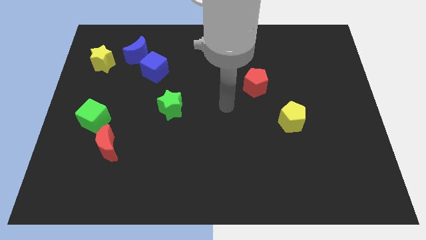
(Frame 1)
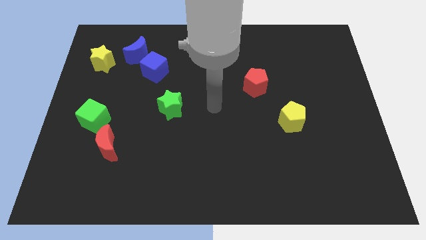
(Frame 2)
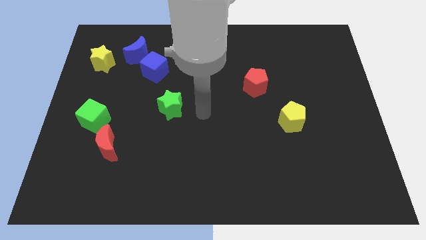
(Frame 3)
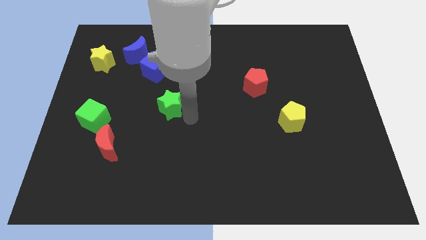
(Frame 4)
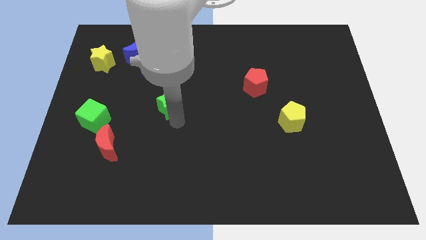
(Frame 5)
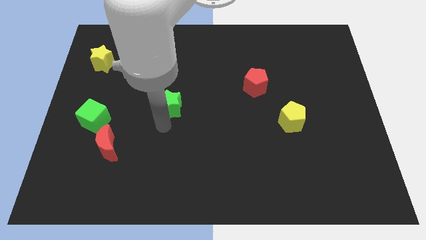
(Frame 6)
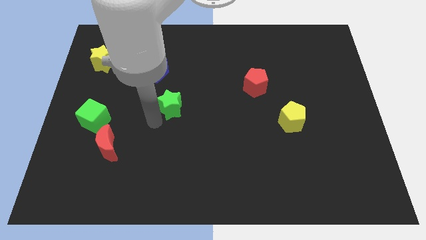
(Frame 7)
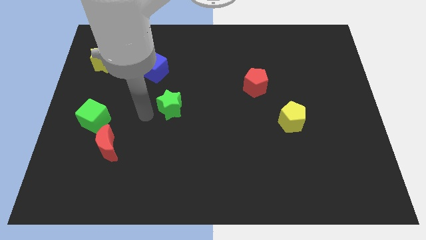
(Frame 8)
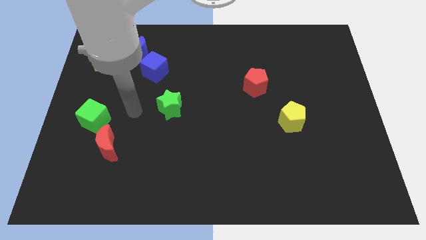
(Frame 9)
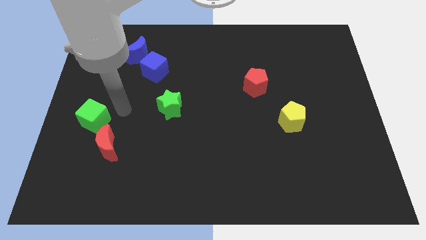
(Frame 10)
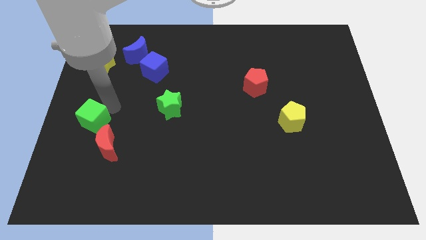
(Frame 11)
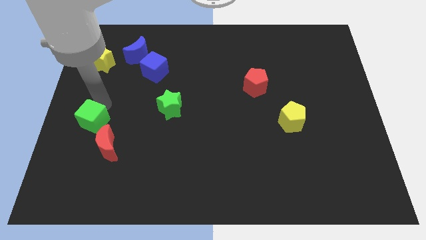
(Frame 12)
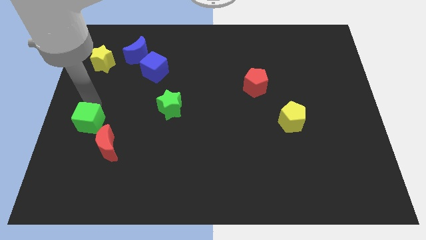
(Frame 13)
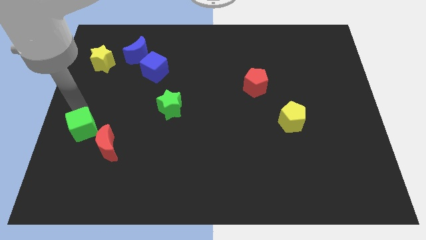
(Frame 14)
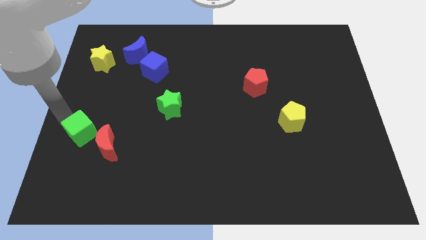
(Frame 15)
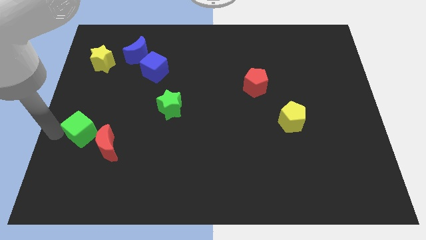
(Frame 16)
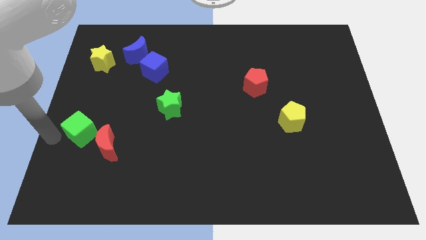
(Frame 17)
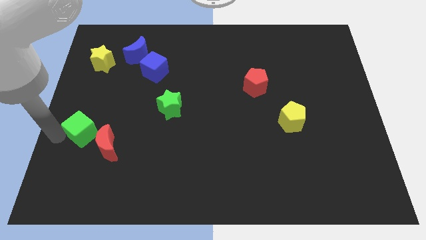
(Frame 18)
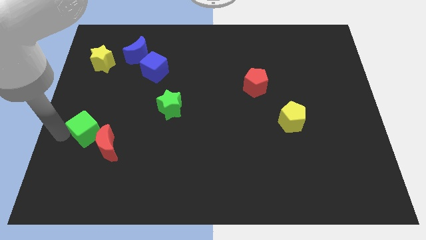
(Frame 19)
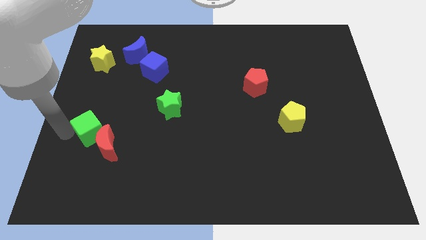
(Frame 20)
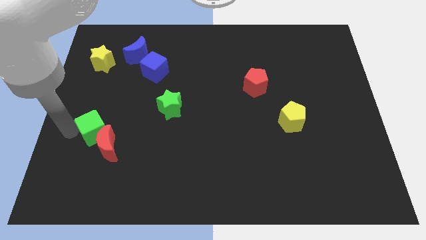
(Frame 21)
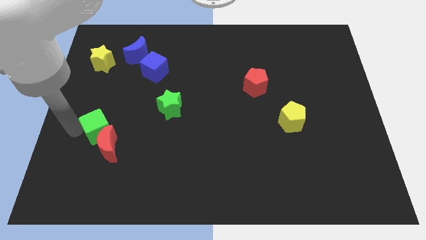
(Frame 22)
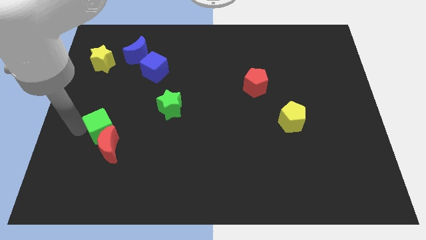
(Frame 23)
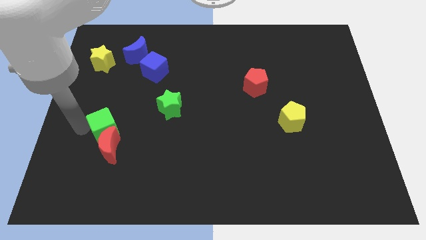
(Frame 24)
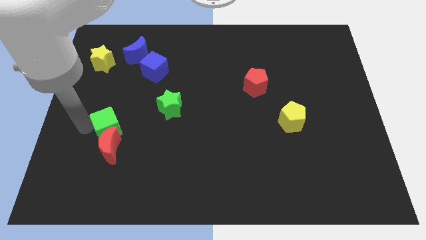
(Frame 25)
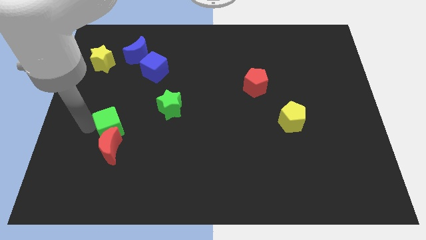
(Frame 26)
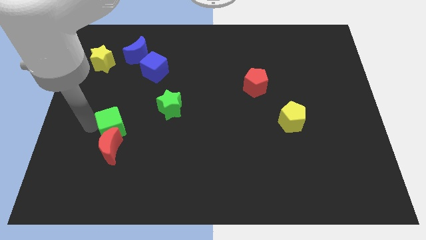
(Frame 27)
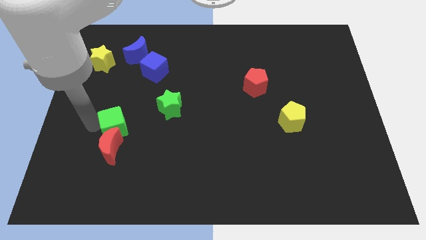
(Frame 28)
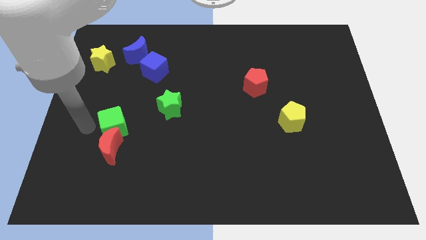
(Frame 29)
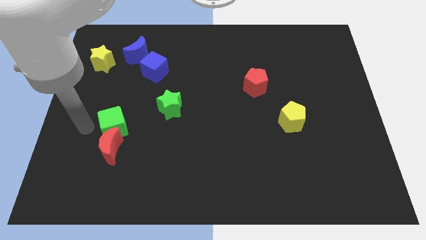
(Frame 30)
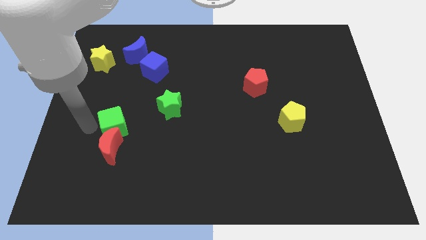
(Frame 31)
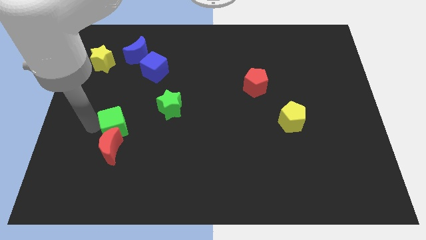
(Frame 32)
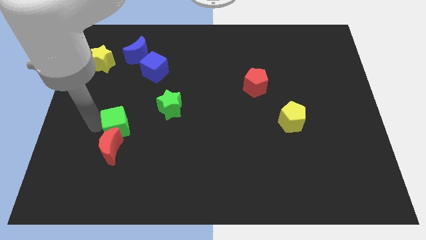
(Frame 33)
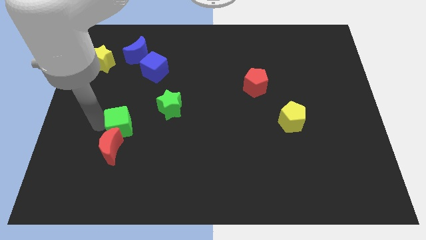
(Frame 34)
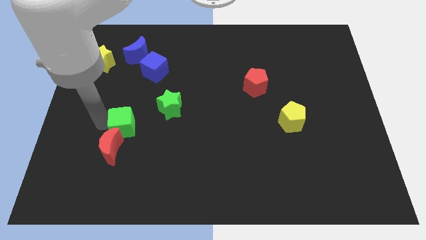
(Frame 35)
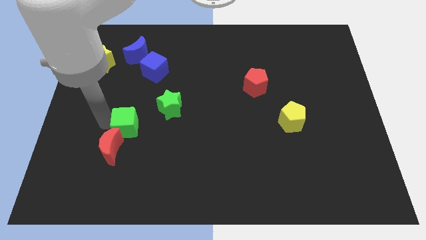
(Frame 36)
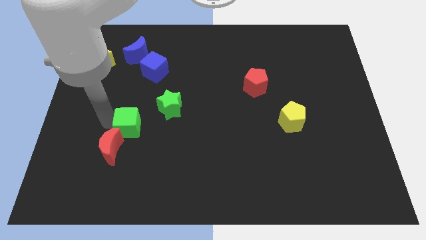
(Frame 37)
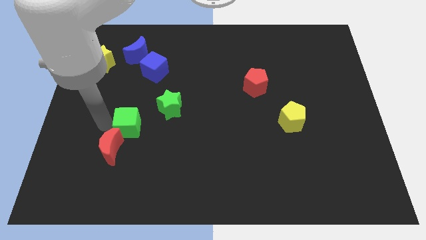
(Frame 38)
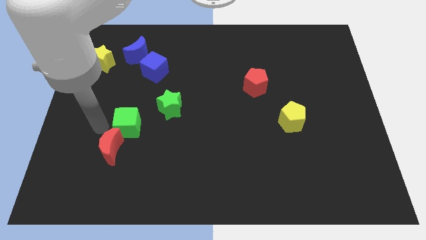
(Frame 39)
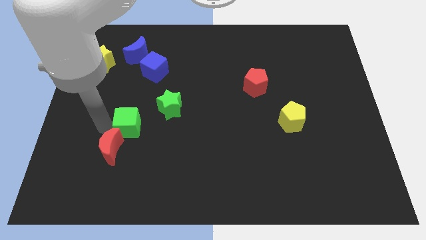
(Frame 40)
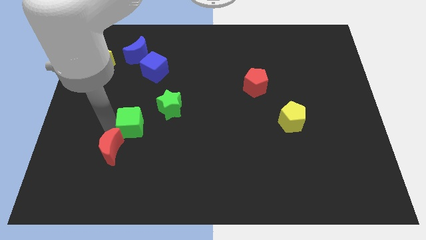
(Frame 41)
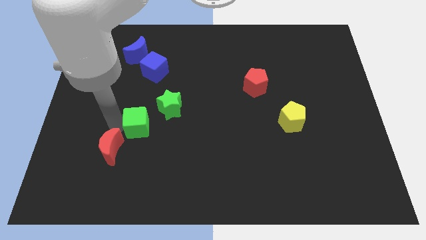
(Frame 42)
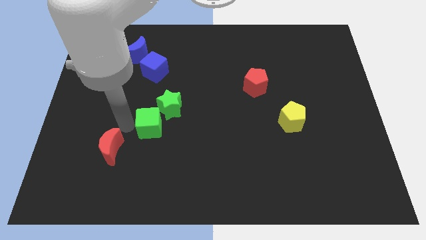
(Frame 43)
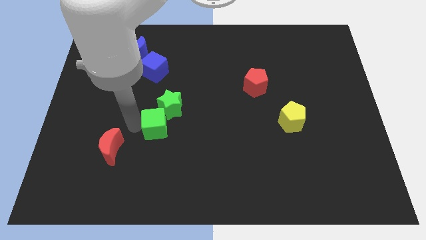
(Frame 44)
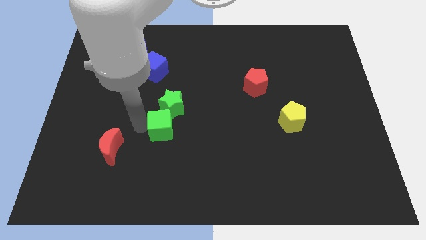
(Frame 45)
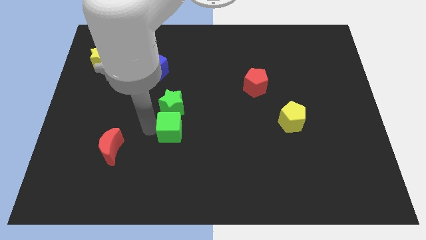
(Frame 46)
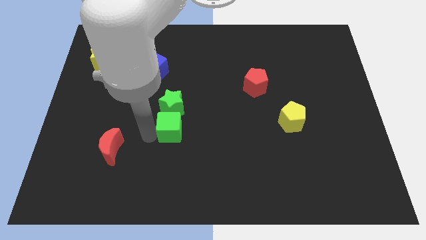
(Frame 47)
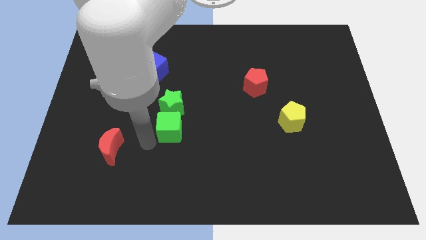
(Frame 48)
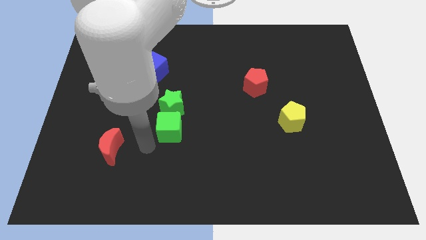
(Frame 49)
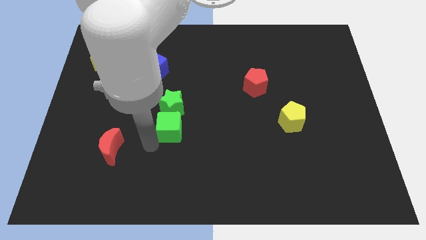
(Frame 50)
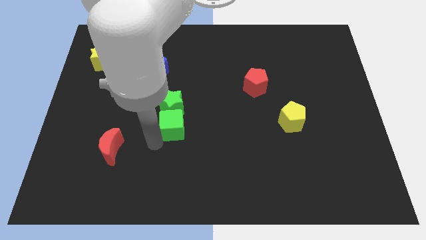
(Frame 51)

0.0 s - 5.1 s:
move the green cube to the center
